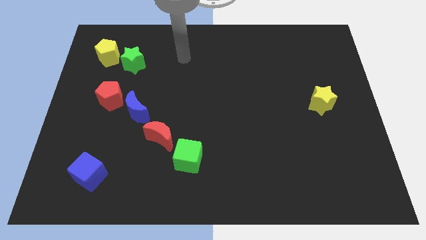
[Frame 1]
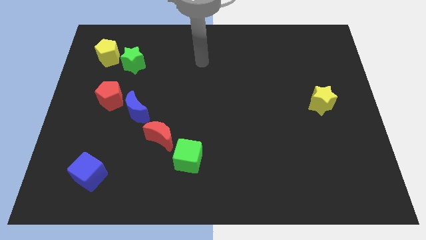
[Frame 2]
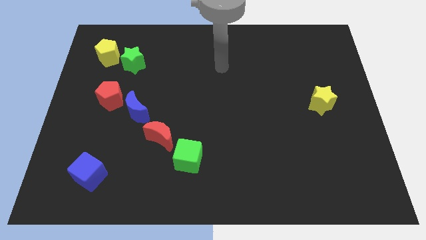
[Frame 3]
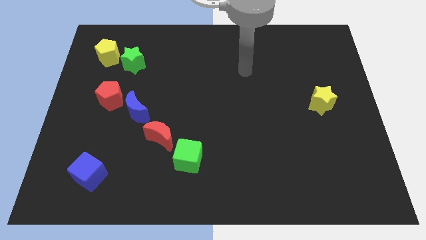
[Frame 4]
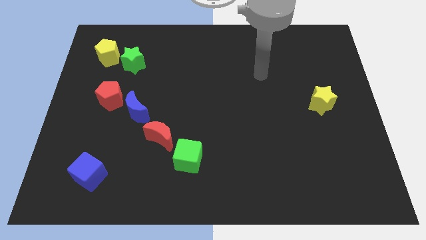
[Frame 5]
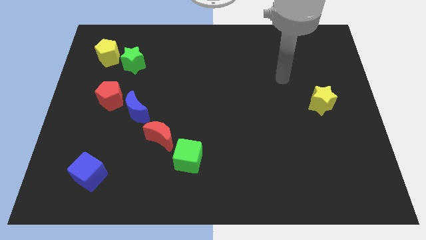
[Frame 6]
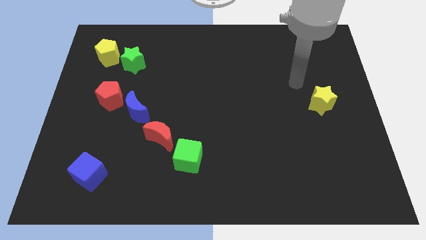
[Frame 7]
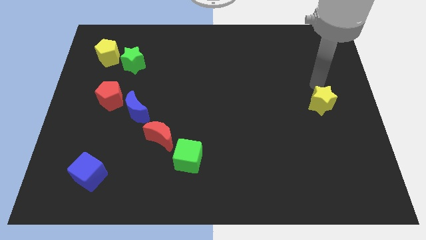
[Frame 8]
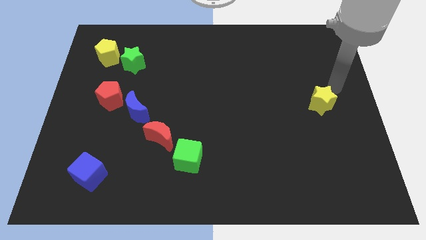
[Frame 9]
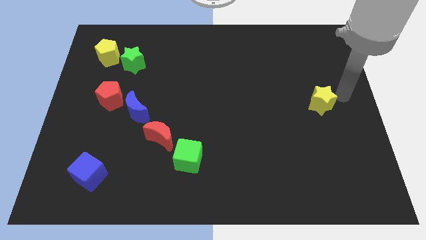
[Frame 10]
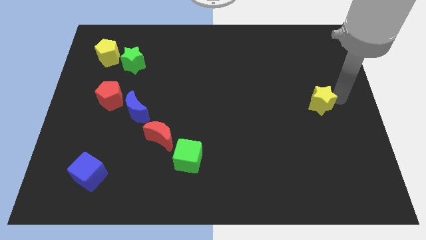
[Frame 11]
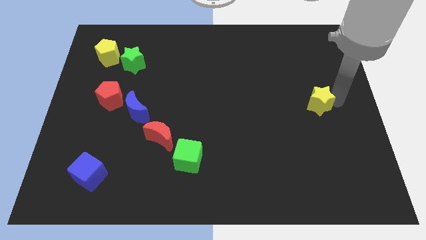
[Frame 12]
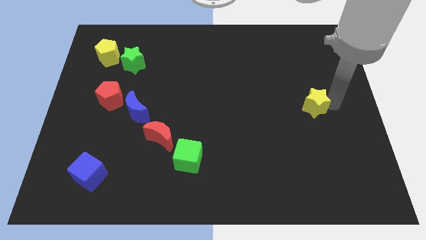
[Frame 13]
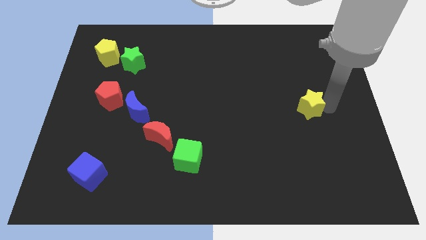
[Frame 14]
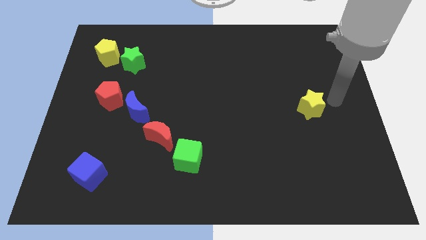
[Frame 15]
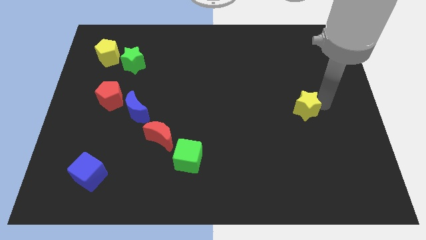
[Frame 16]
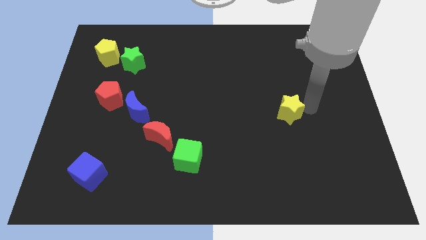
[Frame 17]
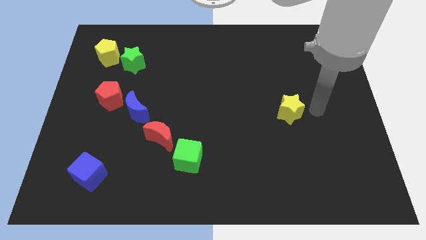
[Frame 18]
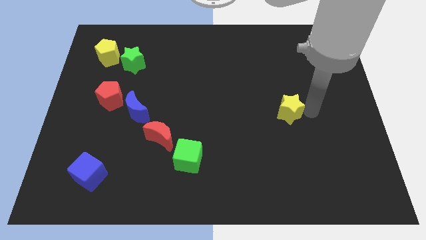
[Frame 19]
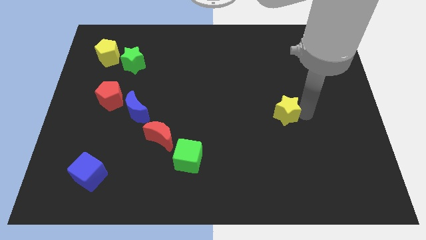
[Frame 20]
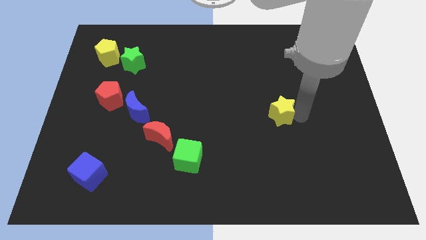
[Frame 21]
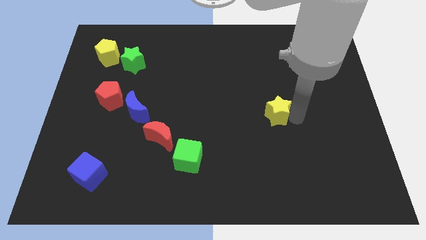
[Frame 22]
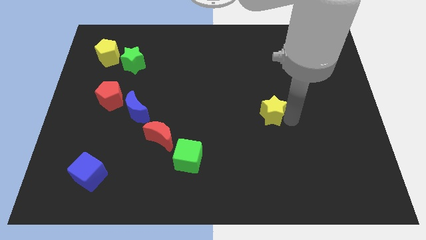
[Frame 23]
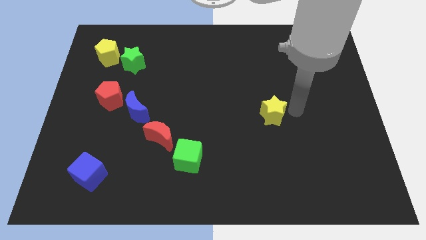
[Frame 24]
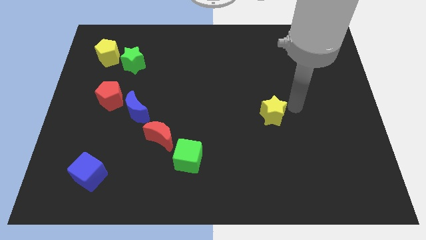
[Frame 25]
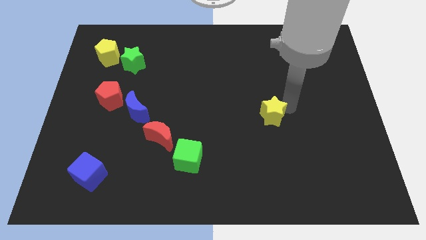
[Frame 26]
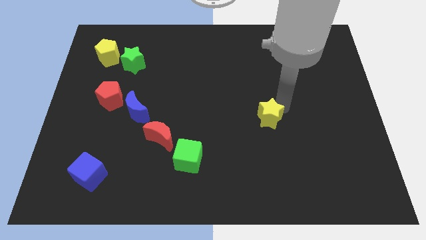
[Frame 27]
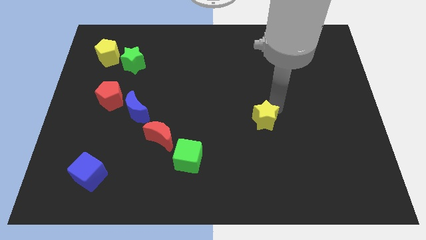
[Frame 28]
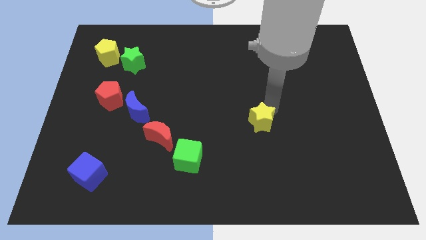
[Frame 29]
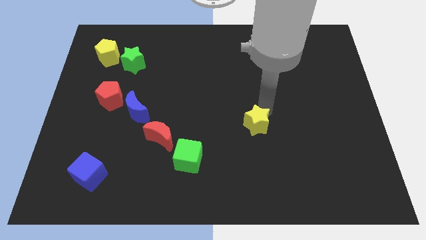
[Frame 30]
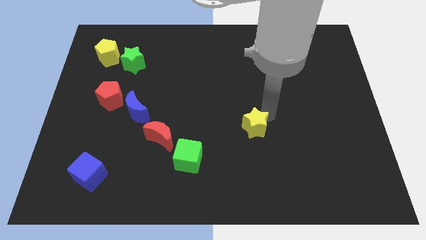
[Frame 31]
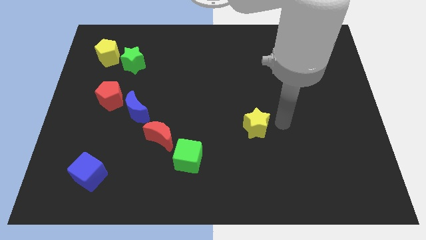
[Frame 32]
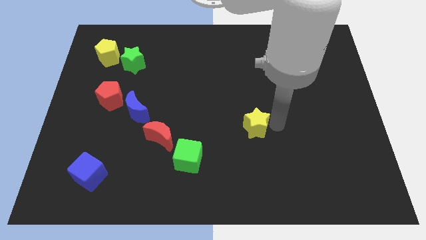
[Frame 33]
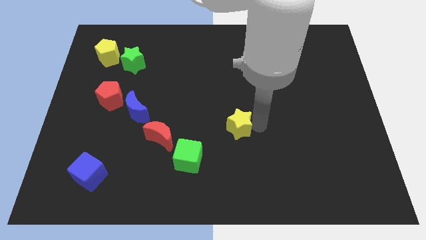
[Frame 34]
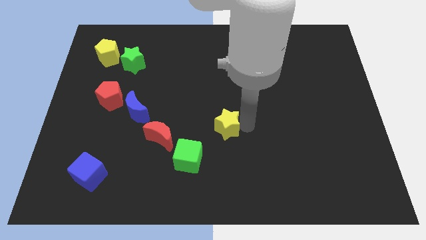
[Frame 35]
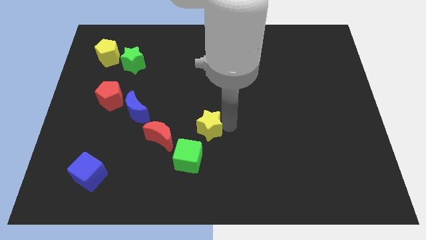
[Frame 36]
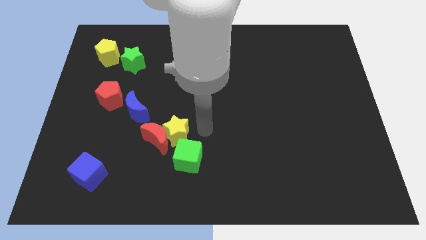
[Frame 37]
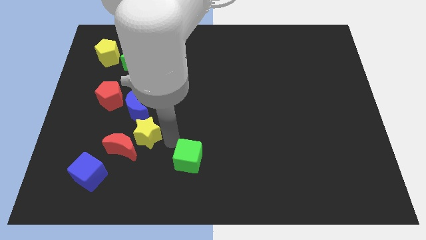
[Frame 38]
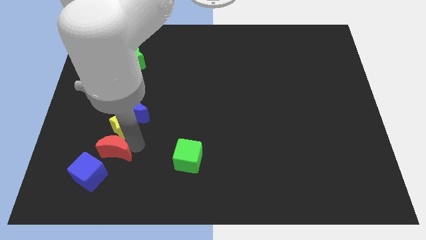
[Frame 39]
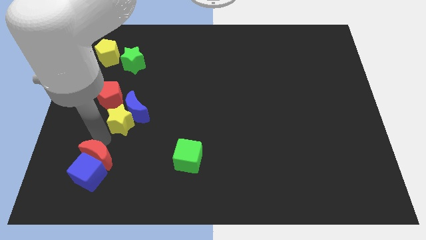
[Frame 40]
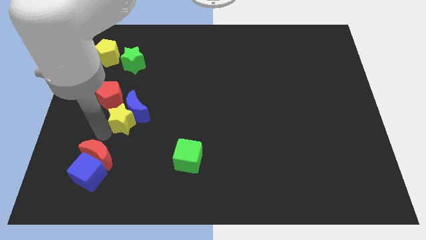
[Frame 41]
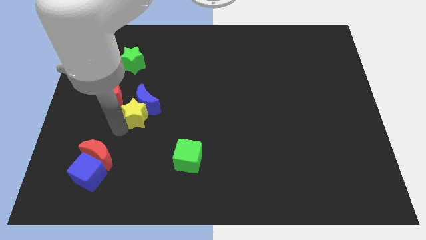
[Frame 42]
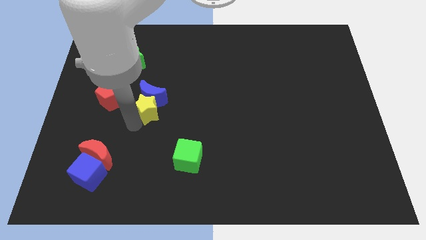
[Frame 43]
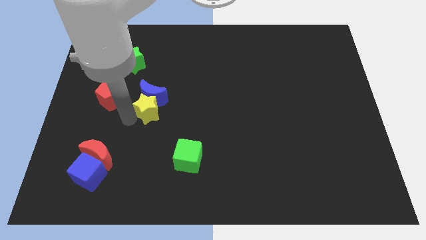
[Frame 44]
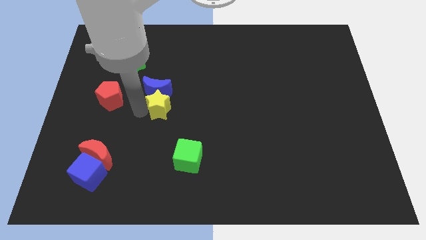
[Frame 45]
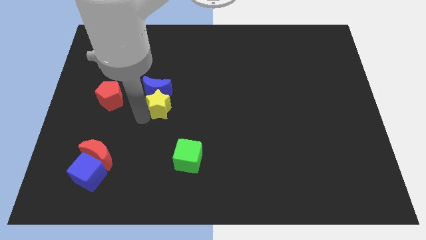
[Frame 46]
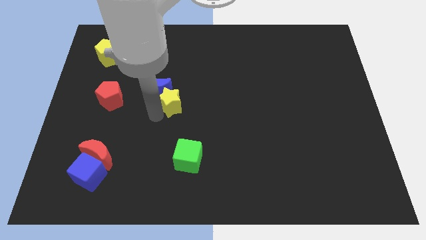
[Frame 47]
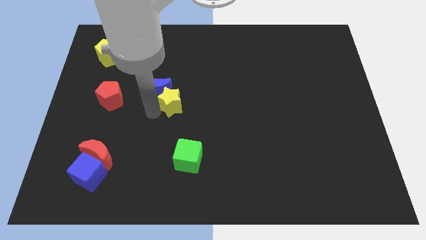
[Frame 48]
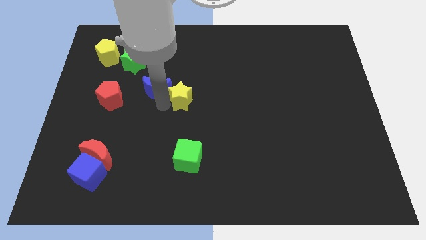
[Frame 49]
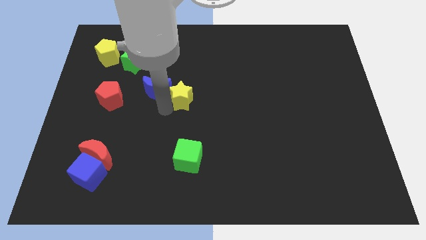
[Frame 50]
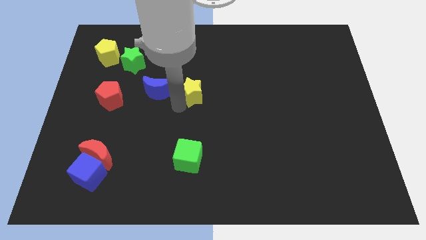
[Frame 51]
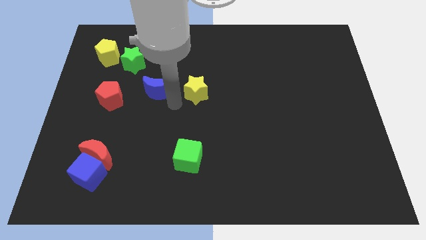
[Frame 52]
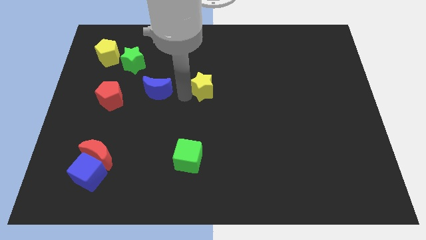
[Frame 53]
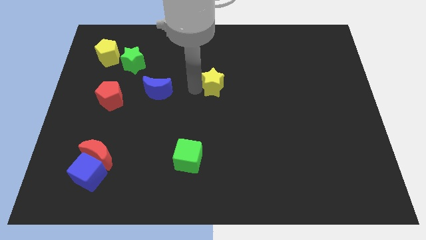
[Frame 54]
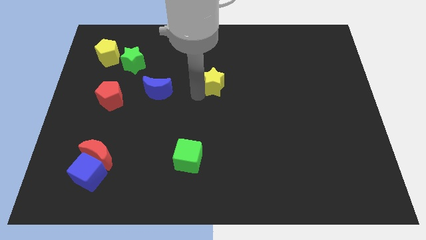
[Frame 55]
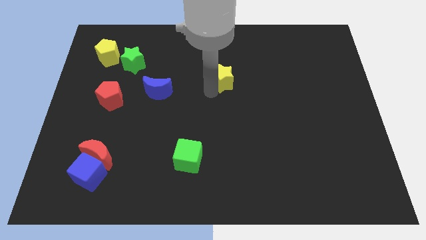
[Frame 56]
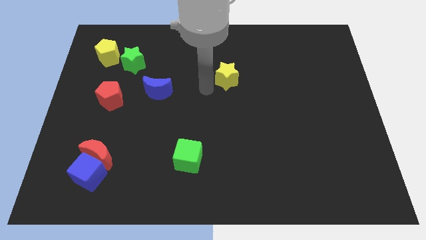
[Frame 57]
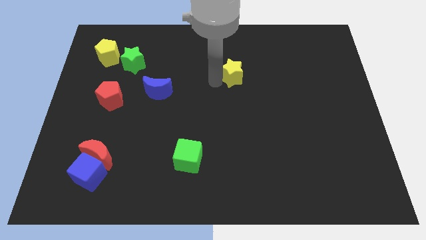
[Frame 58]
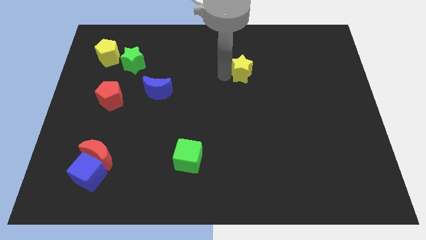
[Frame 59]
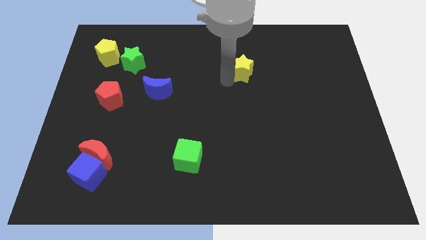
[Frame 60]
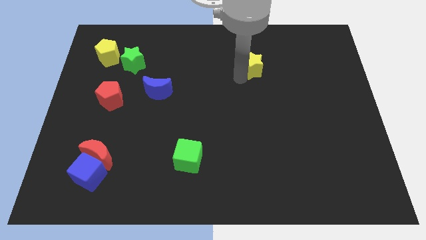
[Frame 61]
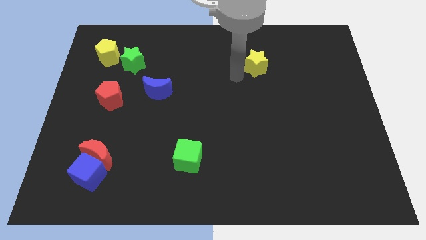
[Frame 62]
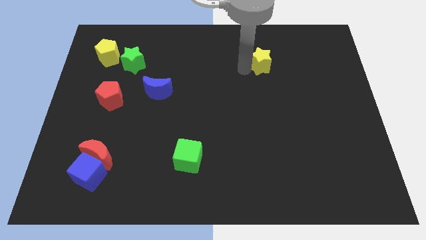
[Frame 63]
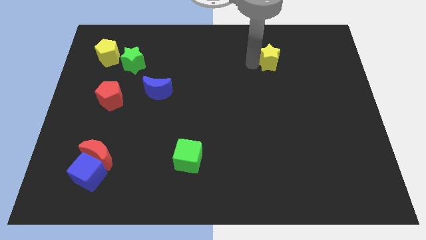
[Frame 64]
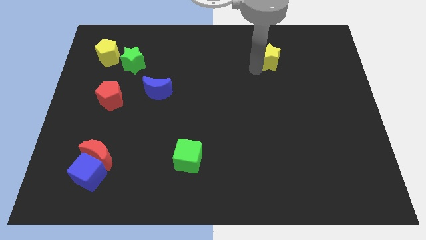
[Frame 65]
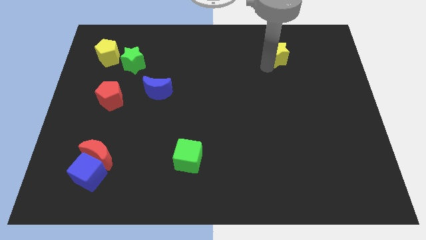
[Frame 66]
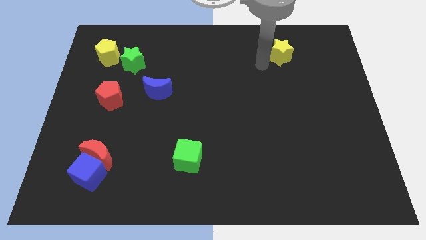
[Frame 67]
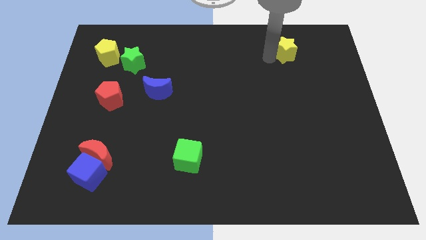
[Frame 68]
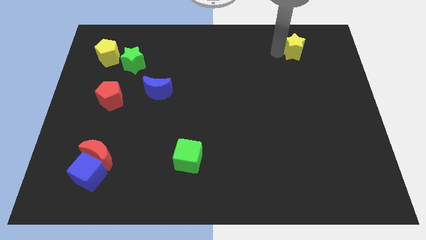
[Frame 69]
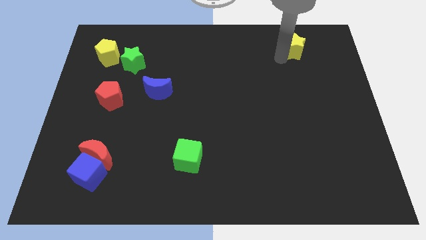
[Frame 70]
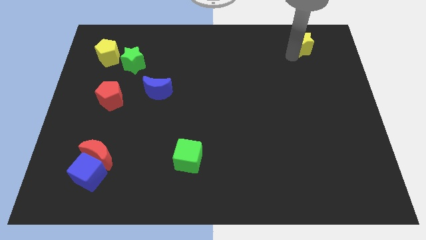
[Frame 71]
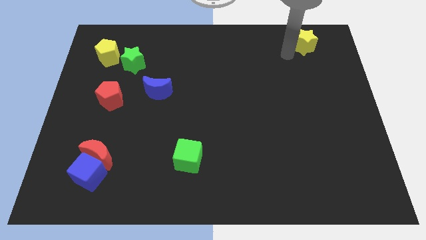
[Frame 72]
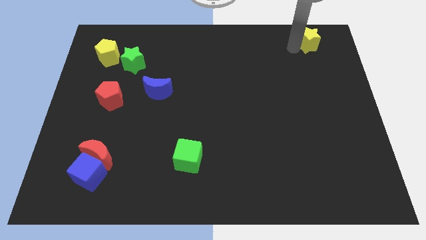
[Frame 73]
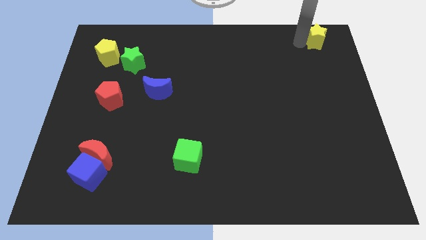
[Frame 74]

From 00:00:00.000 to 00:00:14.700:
put the yellow star to the top right
